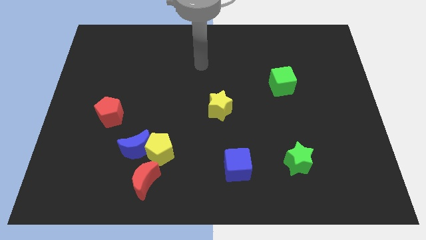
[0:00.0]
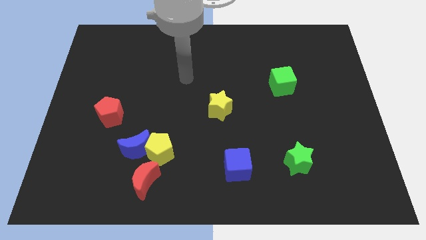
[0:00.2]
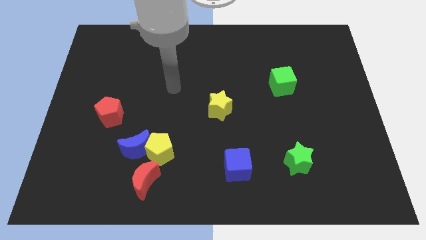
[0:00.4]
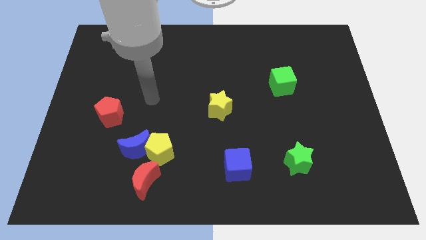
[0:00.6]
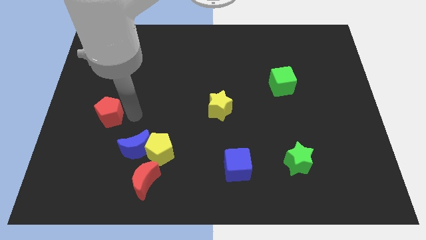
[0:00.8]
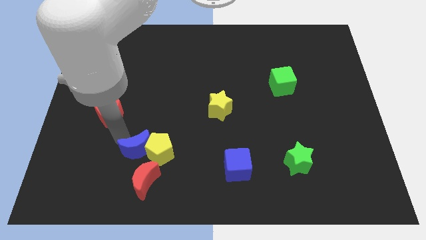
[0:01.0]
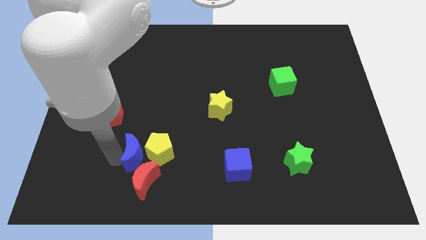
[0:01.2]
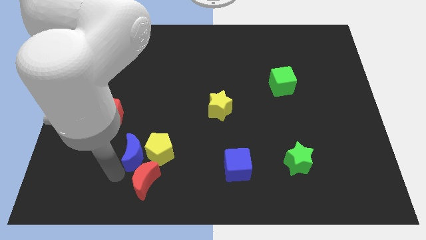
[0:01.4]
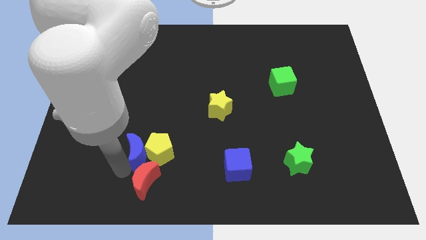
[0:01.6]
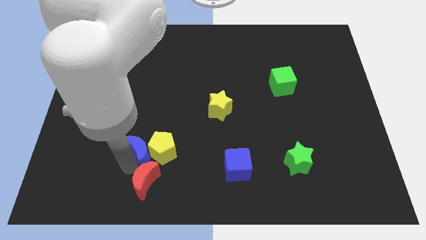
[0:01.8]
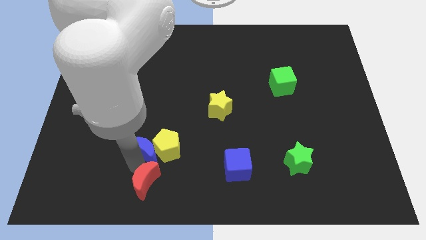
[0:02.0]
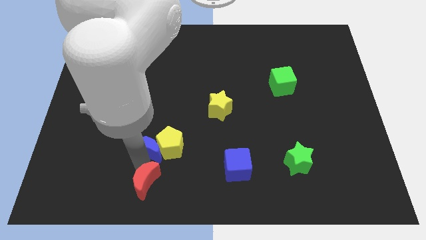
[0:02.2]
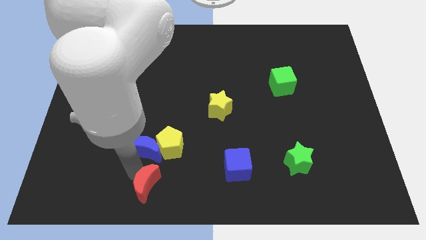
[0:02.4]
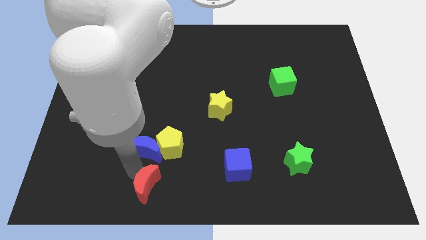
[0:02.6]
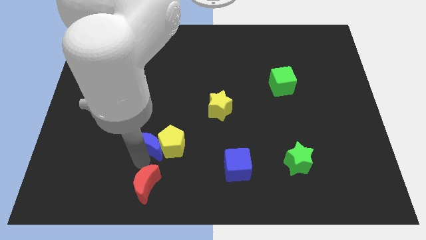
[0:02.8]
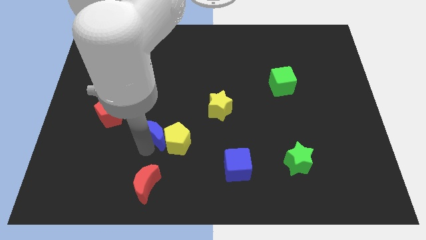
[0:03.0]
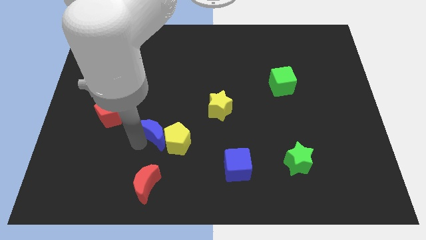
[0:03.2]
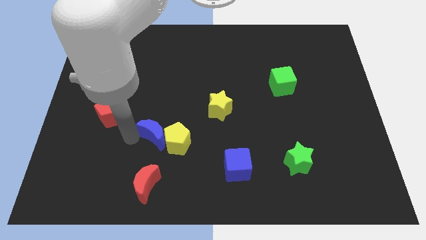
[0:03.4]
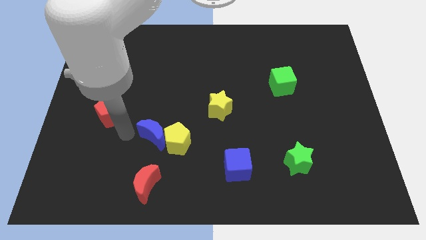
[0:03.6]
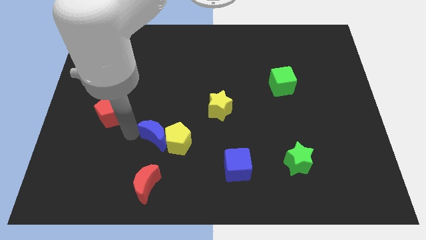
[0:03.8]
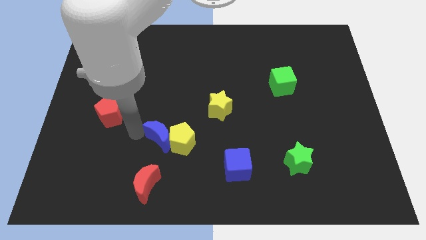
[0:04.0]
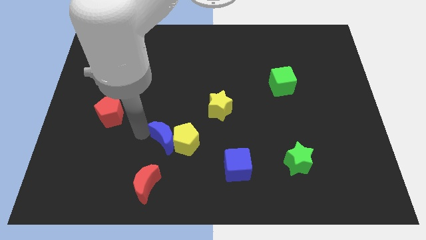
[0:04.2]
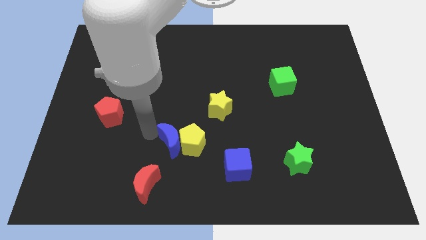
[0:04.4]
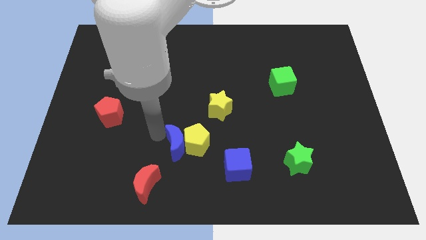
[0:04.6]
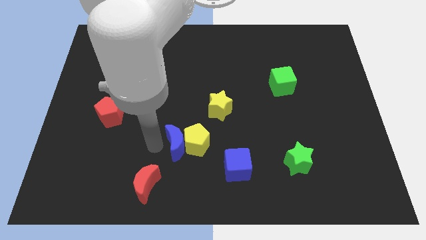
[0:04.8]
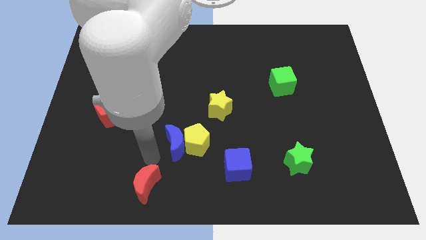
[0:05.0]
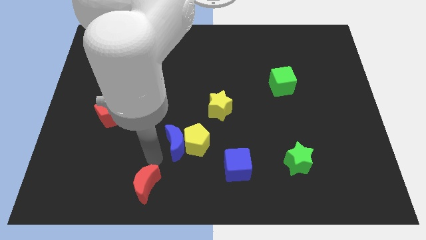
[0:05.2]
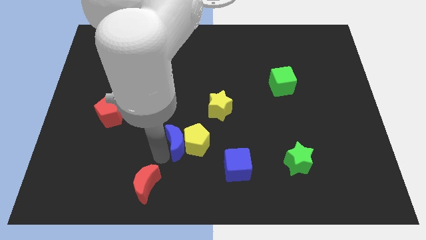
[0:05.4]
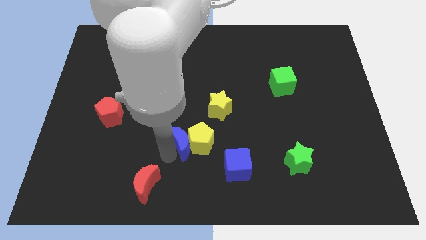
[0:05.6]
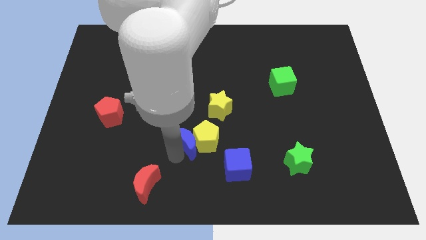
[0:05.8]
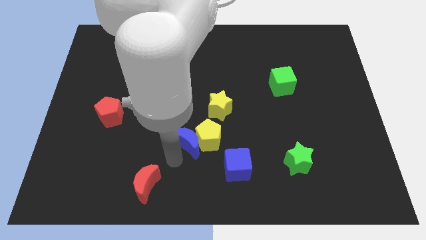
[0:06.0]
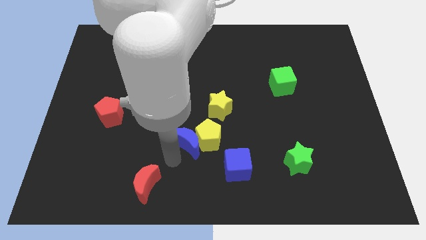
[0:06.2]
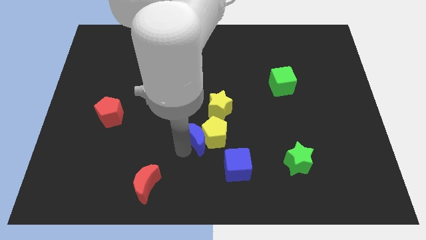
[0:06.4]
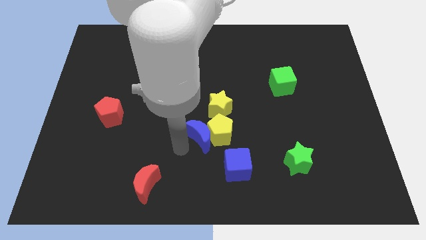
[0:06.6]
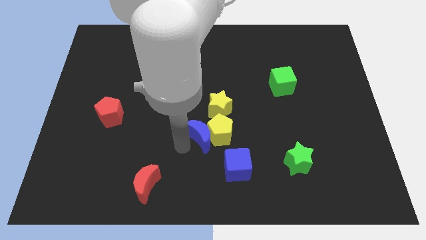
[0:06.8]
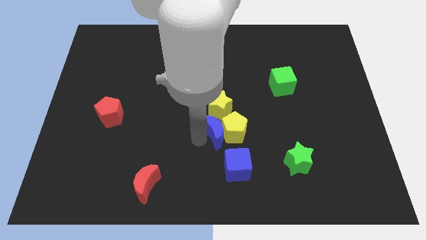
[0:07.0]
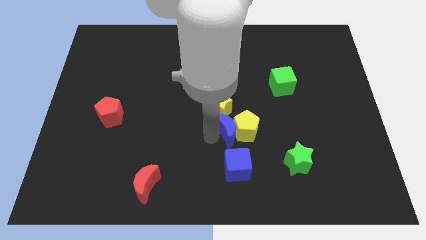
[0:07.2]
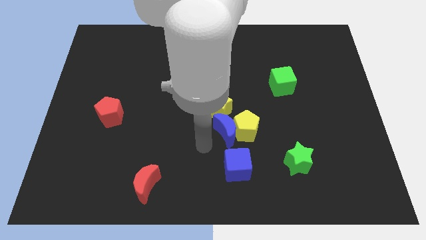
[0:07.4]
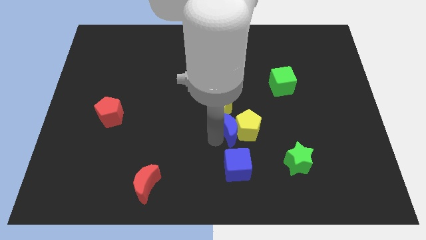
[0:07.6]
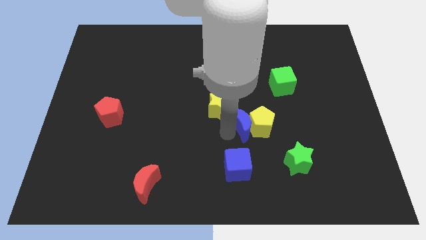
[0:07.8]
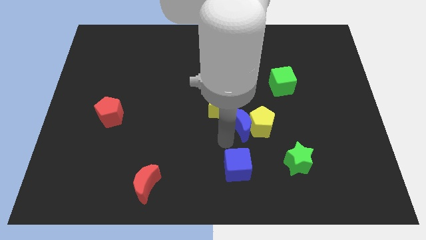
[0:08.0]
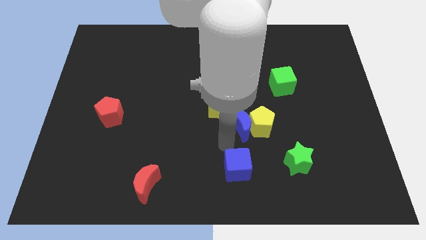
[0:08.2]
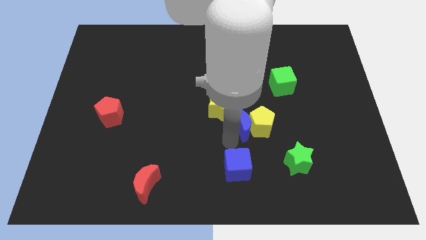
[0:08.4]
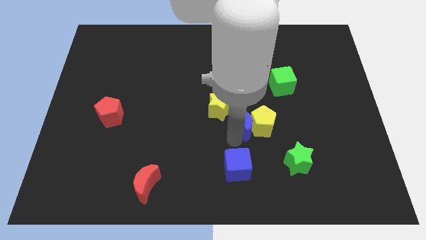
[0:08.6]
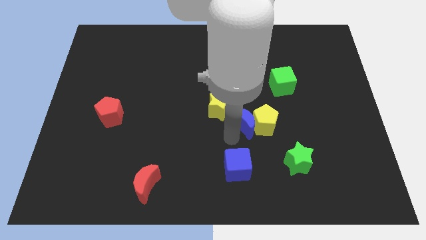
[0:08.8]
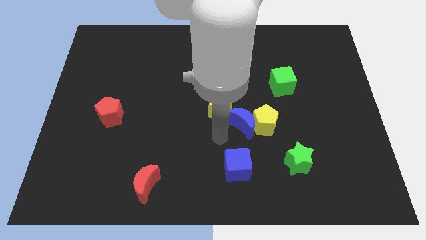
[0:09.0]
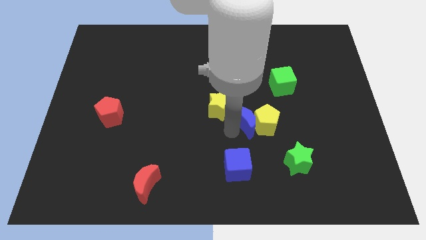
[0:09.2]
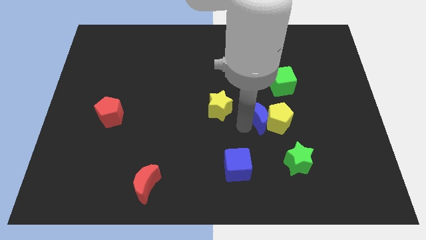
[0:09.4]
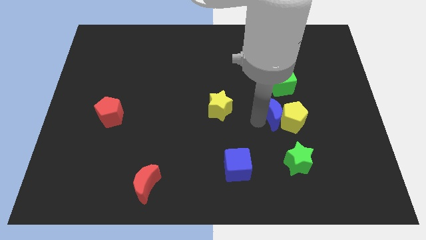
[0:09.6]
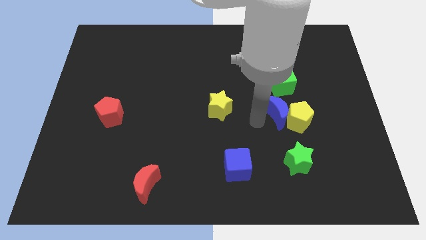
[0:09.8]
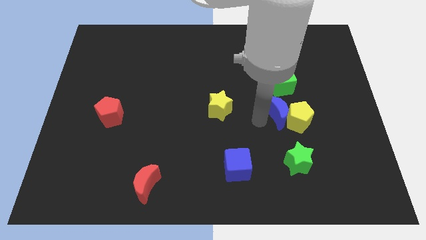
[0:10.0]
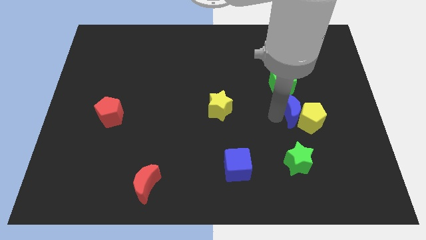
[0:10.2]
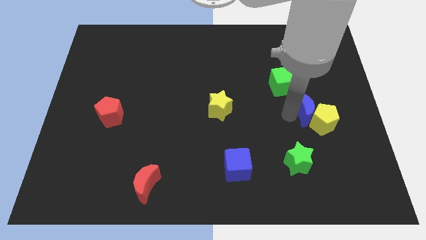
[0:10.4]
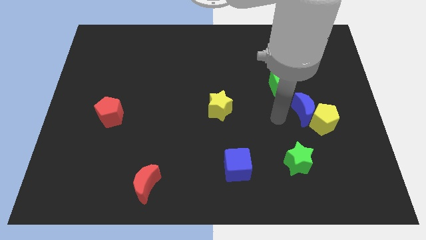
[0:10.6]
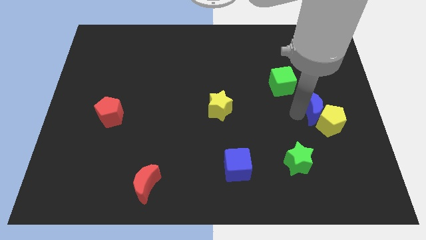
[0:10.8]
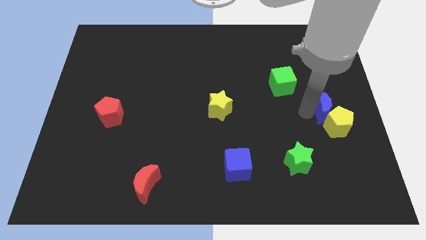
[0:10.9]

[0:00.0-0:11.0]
slide the blue moon to the right side of the board

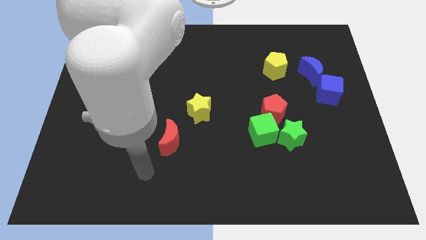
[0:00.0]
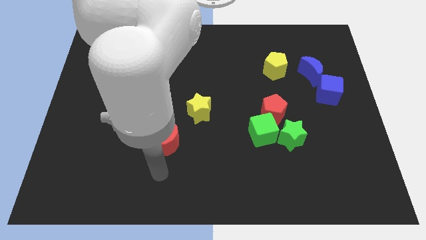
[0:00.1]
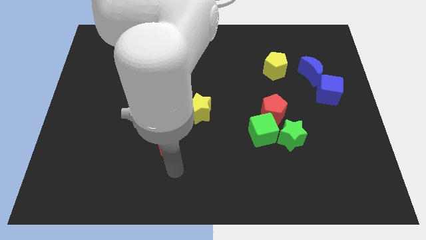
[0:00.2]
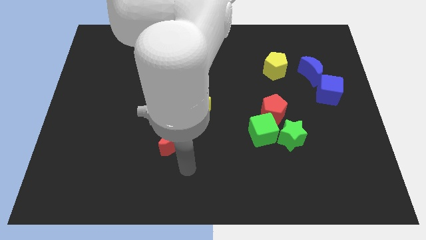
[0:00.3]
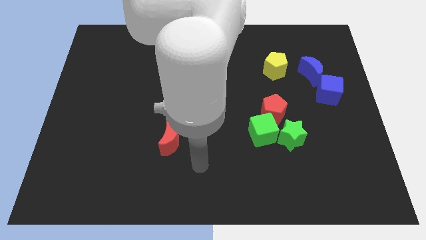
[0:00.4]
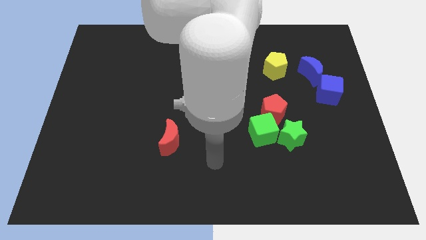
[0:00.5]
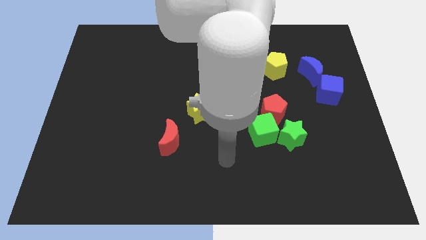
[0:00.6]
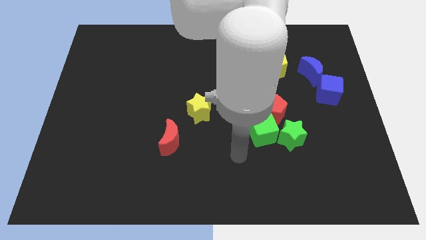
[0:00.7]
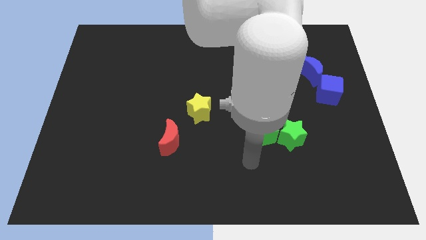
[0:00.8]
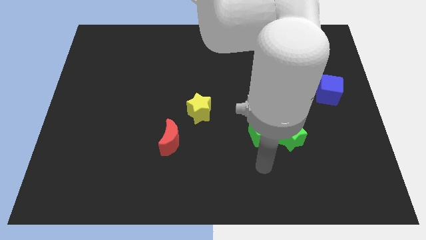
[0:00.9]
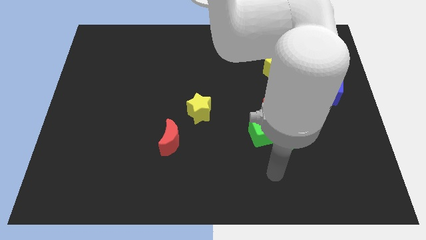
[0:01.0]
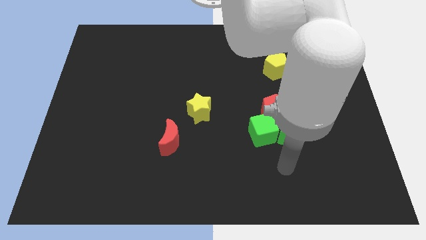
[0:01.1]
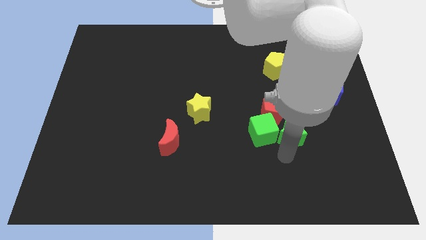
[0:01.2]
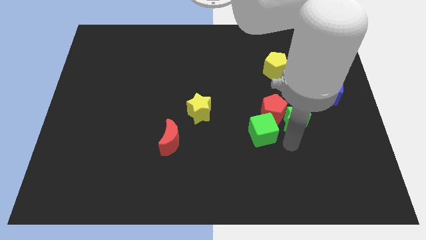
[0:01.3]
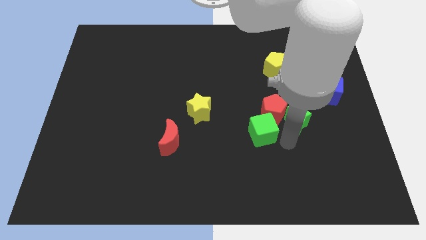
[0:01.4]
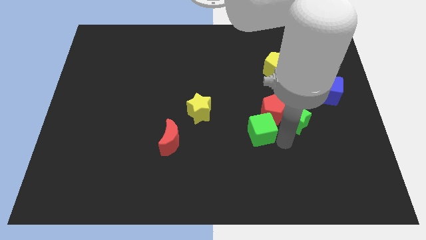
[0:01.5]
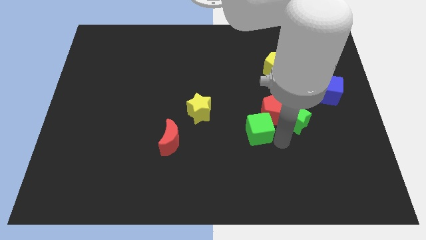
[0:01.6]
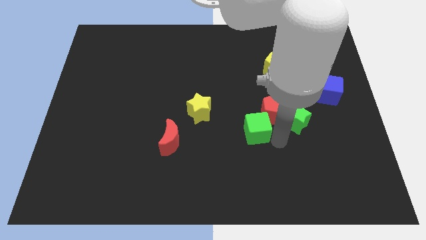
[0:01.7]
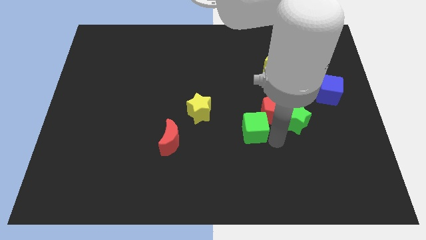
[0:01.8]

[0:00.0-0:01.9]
push the green cube to the middle of the board
